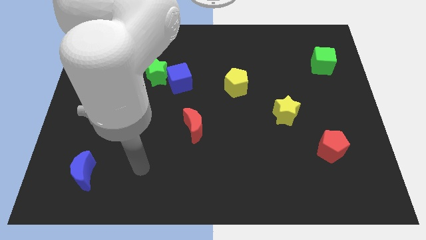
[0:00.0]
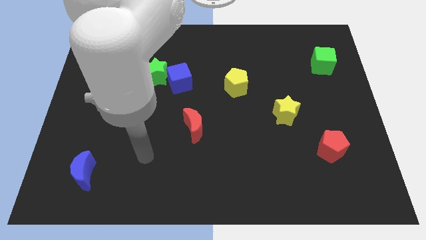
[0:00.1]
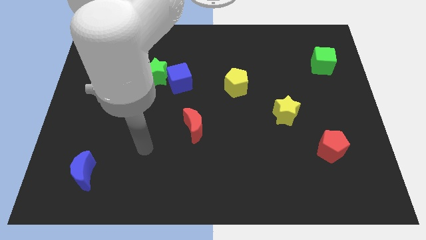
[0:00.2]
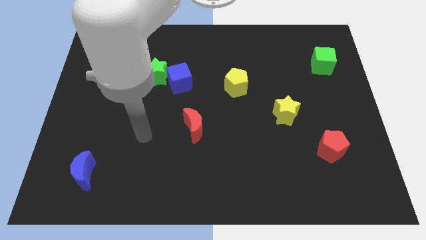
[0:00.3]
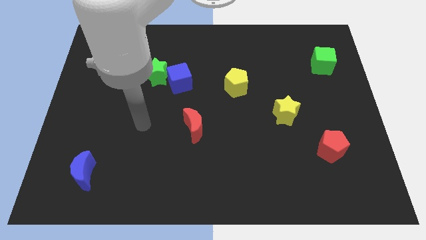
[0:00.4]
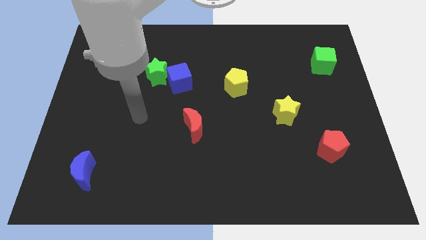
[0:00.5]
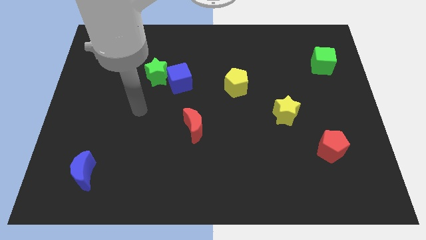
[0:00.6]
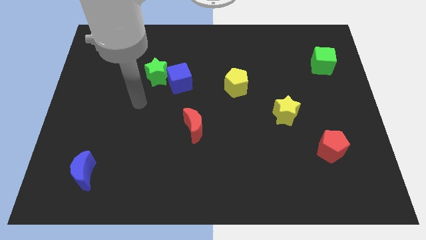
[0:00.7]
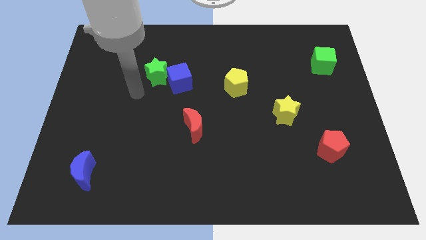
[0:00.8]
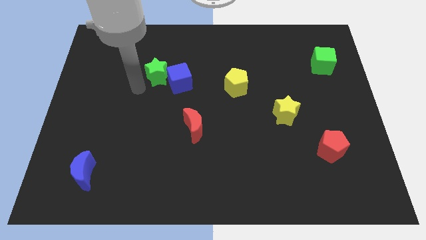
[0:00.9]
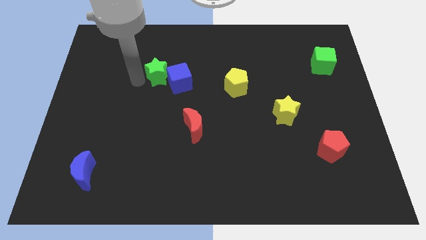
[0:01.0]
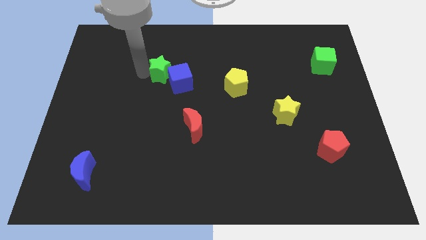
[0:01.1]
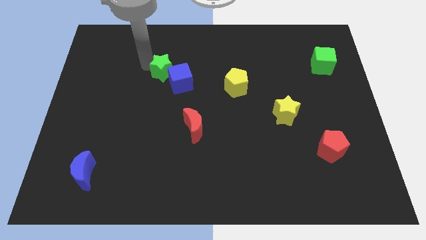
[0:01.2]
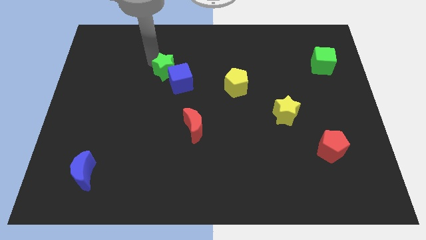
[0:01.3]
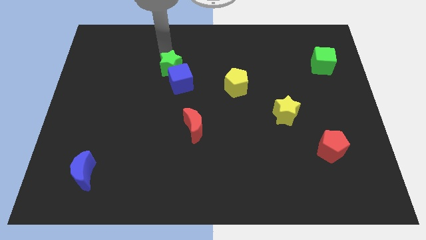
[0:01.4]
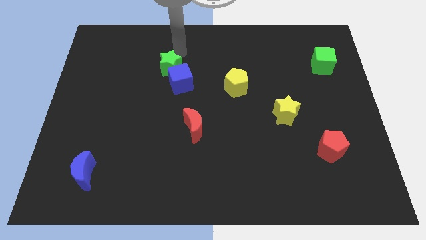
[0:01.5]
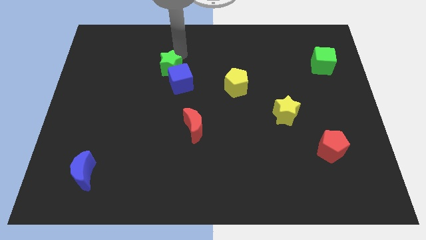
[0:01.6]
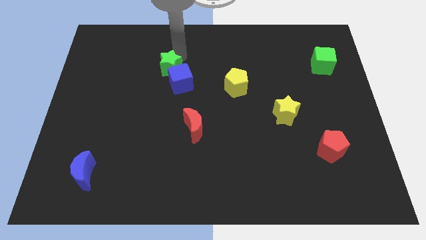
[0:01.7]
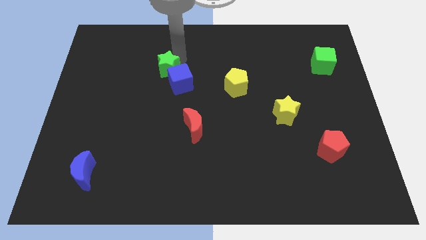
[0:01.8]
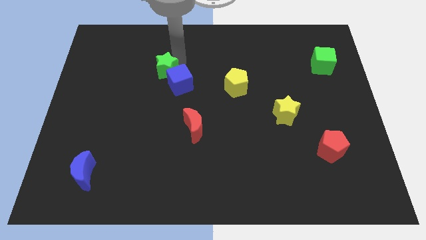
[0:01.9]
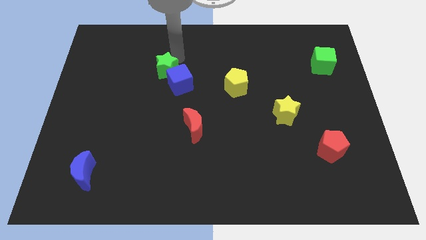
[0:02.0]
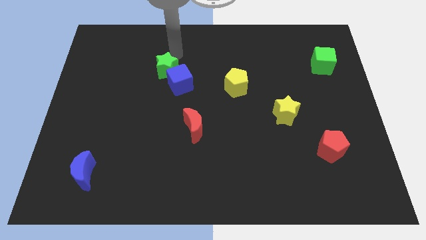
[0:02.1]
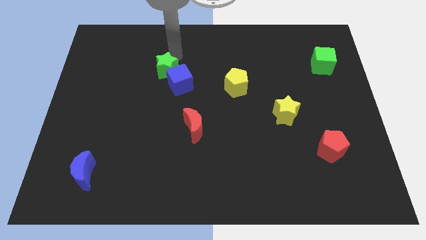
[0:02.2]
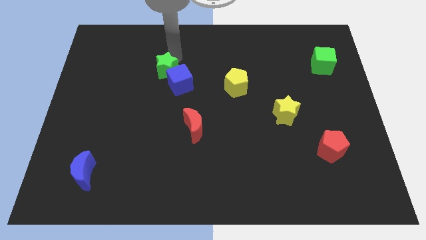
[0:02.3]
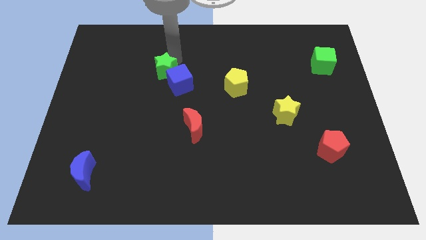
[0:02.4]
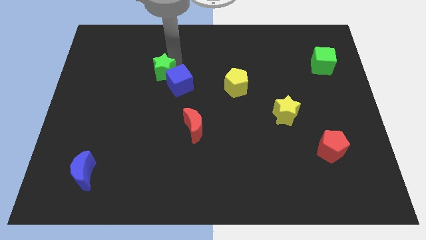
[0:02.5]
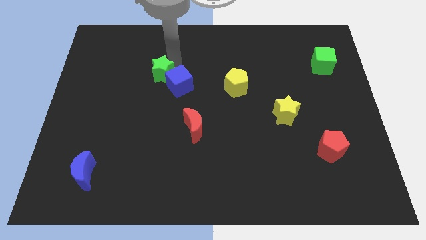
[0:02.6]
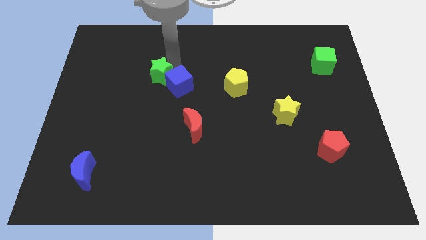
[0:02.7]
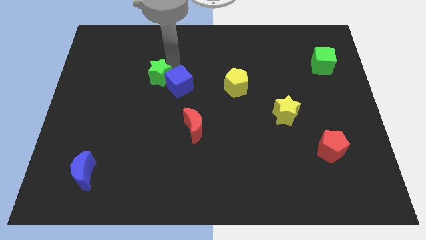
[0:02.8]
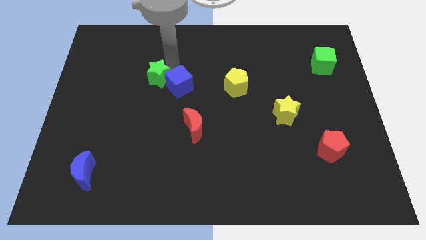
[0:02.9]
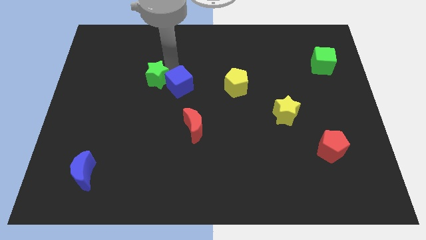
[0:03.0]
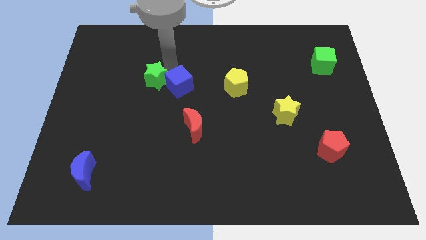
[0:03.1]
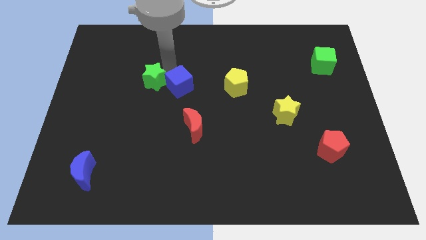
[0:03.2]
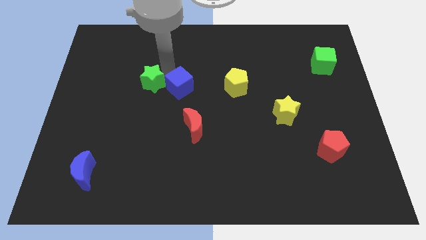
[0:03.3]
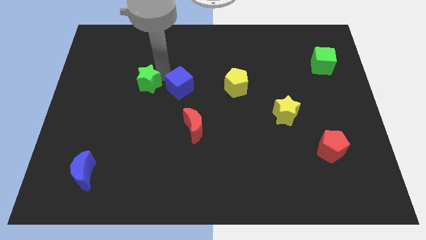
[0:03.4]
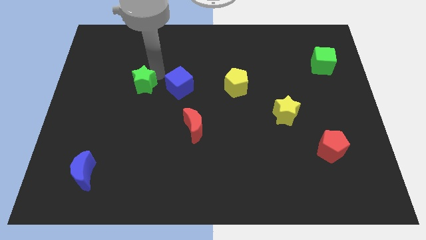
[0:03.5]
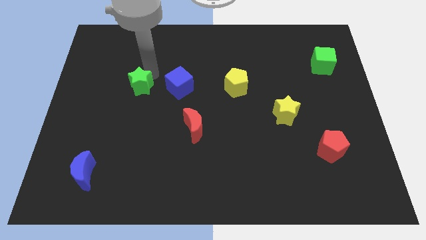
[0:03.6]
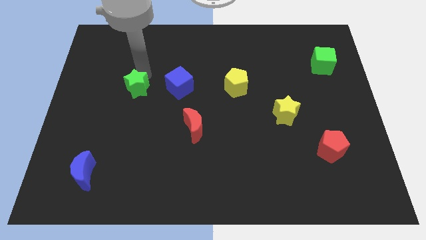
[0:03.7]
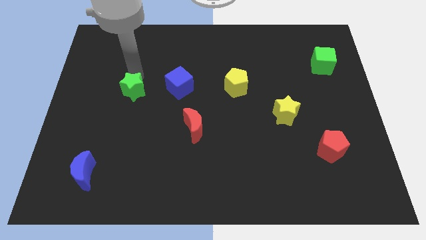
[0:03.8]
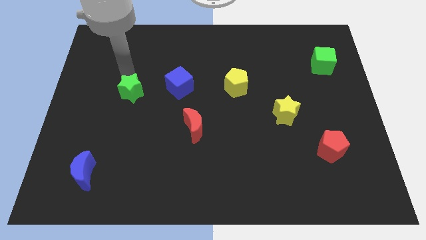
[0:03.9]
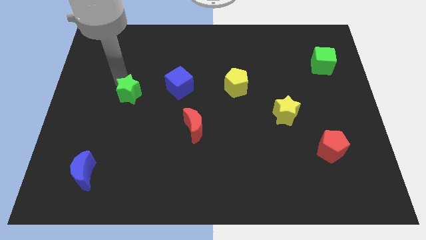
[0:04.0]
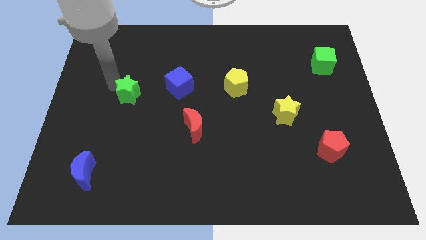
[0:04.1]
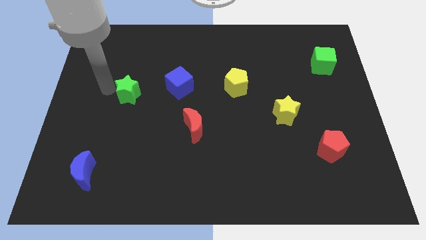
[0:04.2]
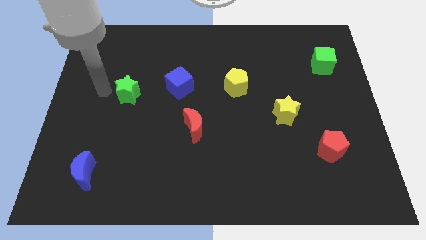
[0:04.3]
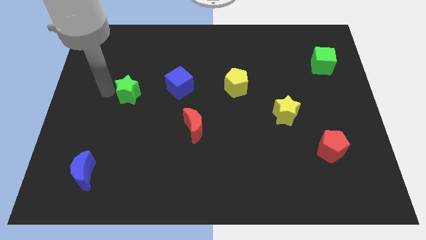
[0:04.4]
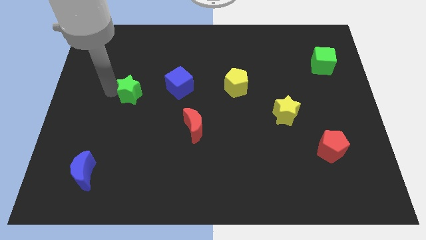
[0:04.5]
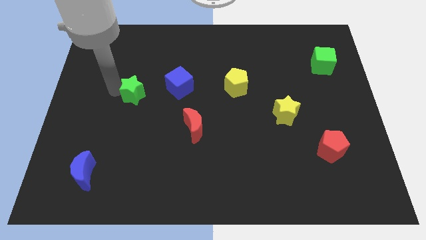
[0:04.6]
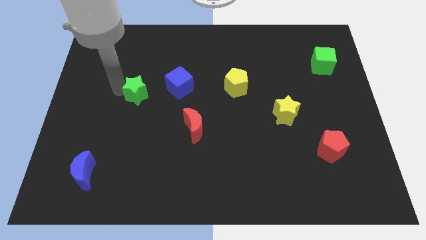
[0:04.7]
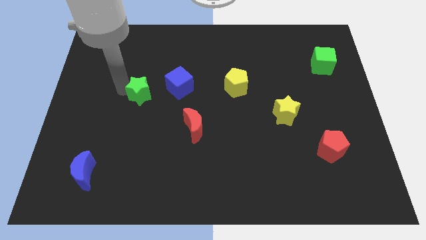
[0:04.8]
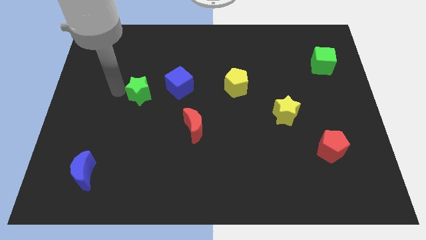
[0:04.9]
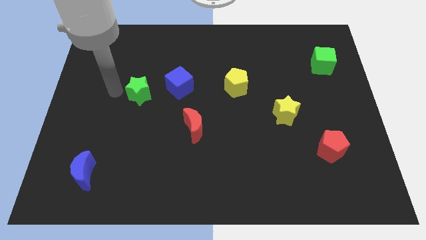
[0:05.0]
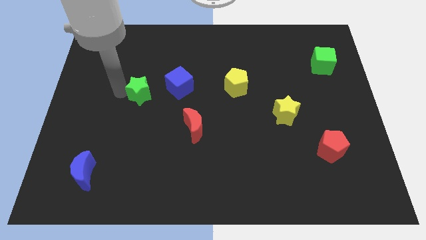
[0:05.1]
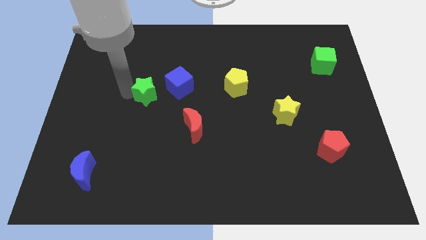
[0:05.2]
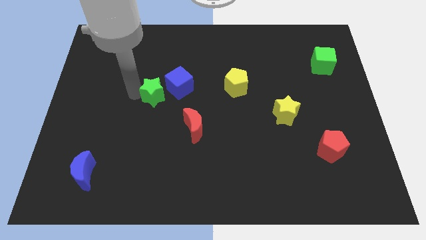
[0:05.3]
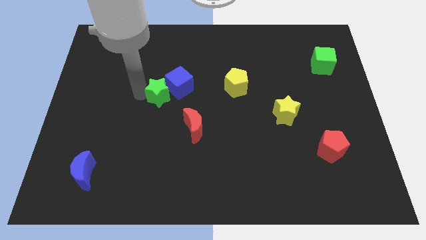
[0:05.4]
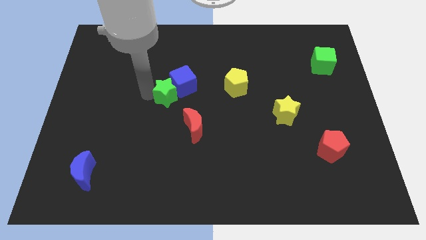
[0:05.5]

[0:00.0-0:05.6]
push the green star to the middle
